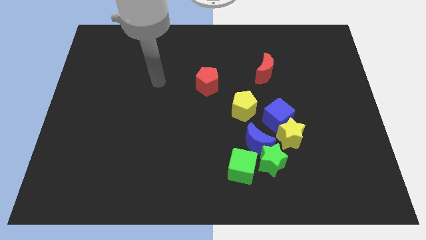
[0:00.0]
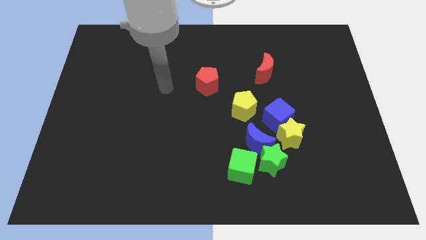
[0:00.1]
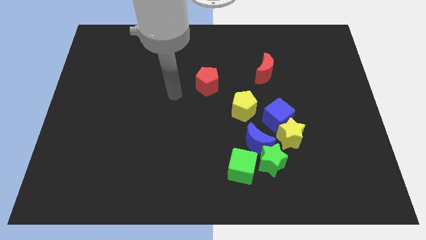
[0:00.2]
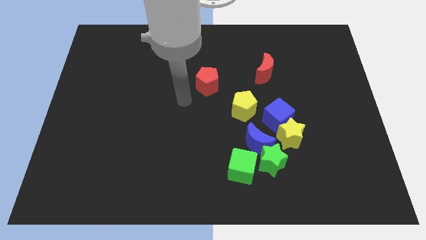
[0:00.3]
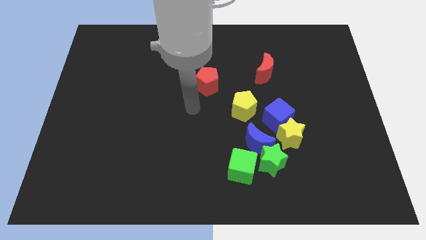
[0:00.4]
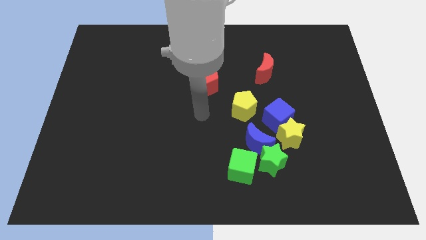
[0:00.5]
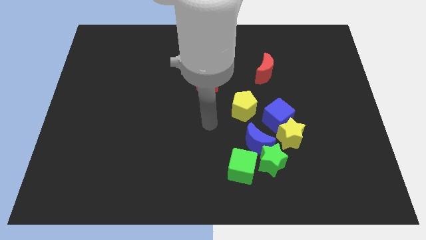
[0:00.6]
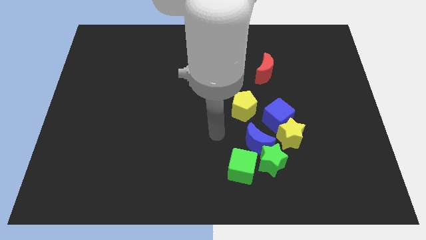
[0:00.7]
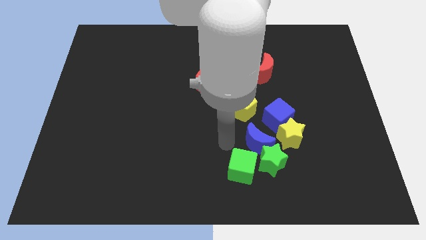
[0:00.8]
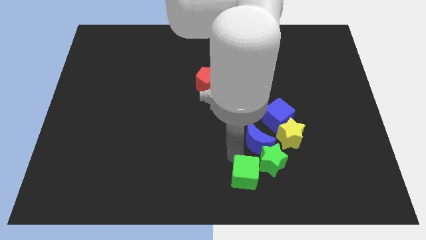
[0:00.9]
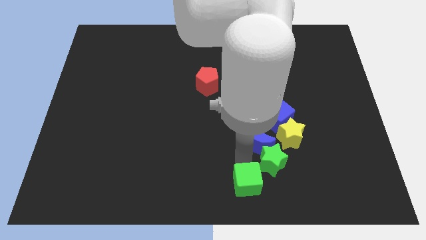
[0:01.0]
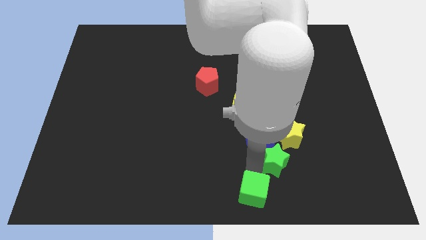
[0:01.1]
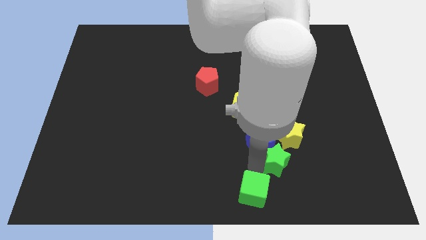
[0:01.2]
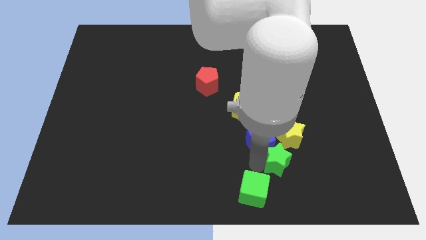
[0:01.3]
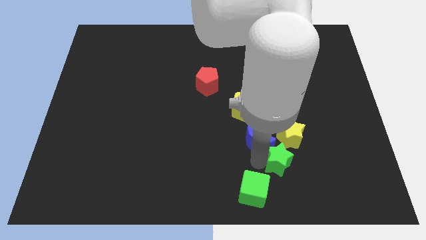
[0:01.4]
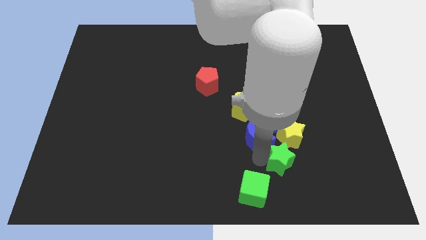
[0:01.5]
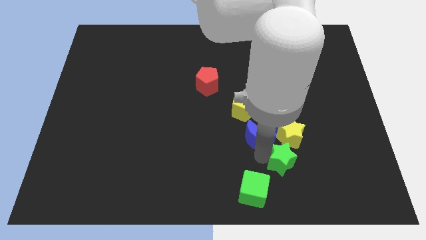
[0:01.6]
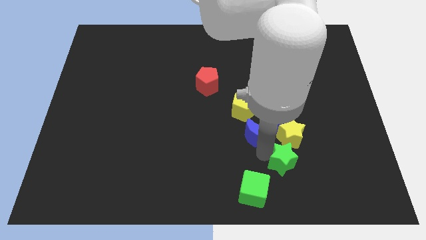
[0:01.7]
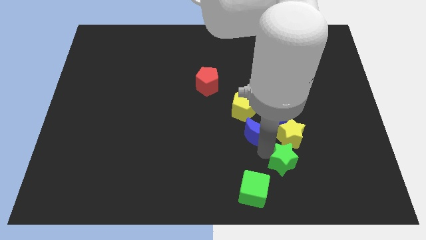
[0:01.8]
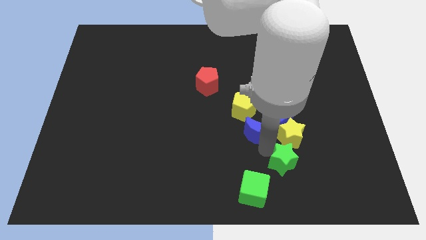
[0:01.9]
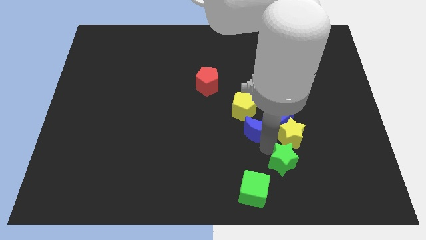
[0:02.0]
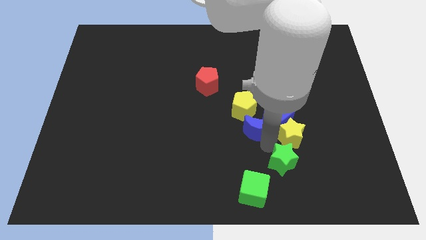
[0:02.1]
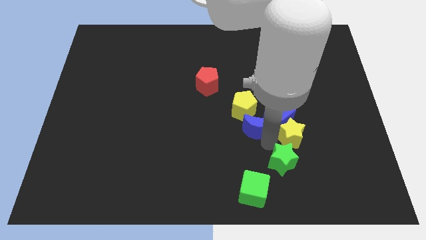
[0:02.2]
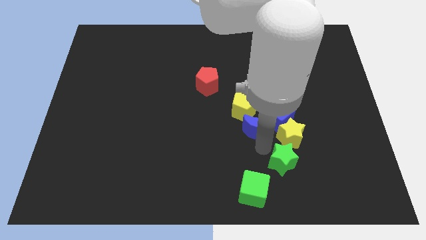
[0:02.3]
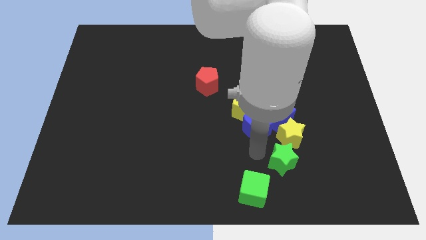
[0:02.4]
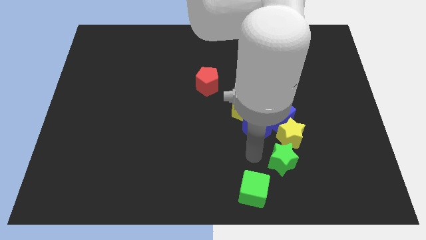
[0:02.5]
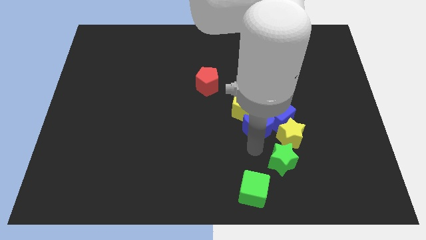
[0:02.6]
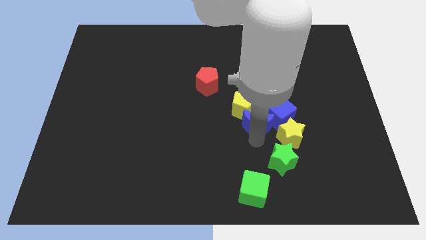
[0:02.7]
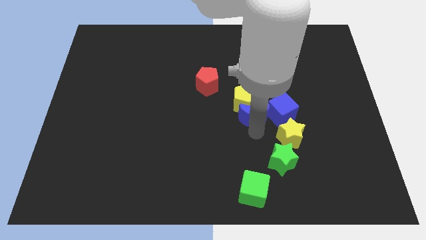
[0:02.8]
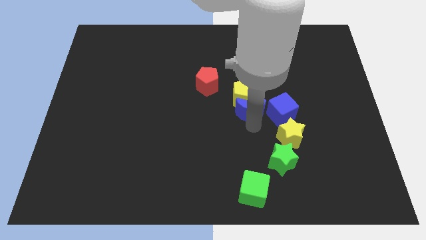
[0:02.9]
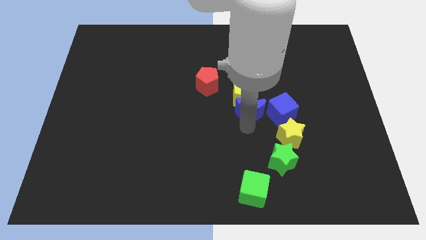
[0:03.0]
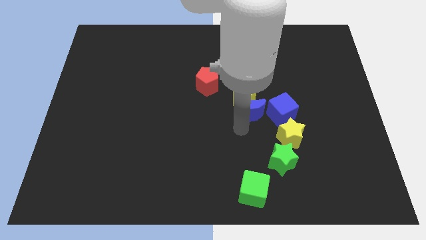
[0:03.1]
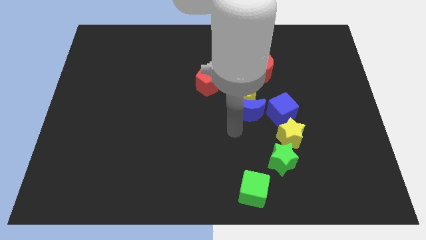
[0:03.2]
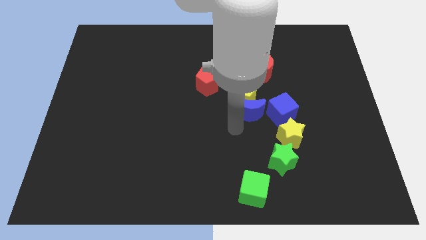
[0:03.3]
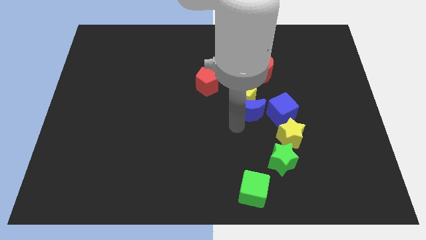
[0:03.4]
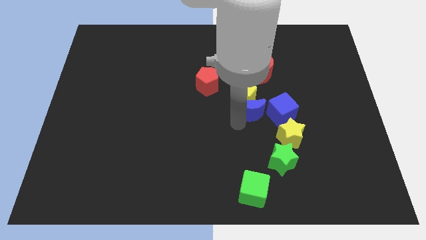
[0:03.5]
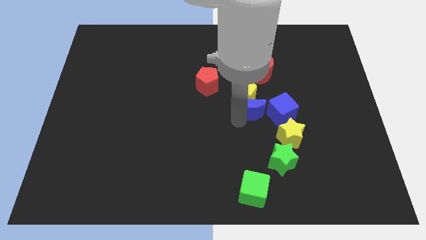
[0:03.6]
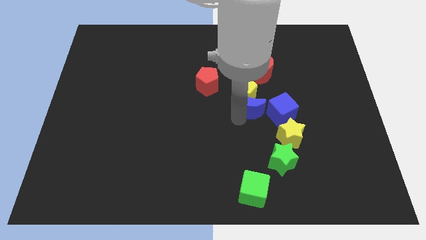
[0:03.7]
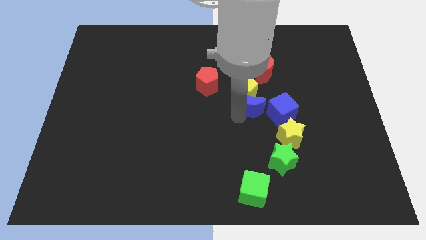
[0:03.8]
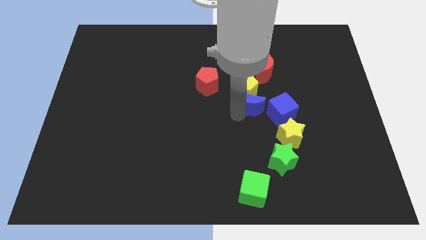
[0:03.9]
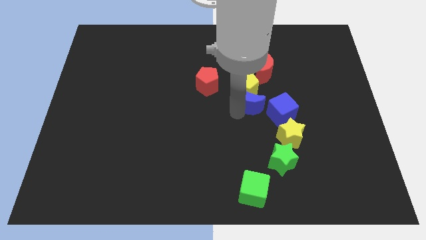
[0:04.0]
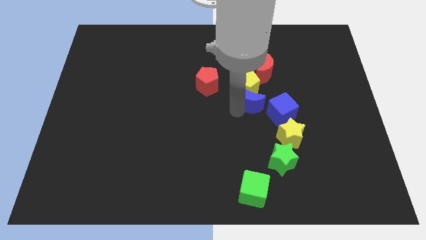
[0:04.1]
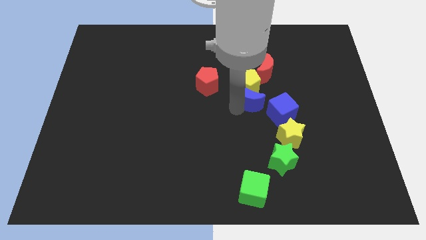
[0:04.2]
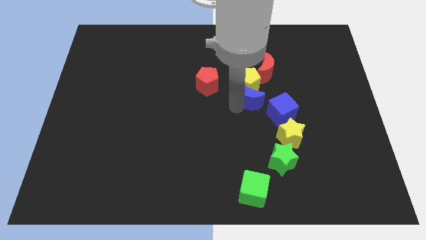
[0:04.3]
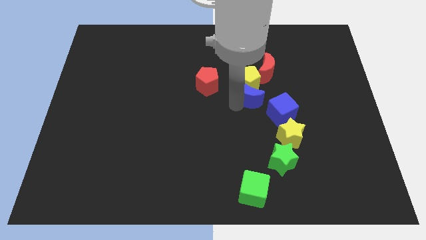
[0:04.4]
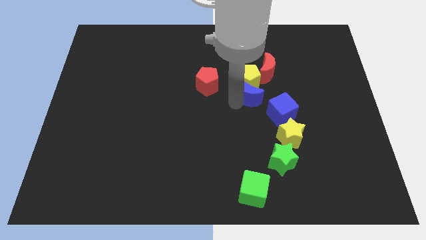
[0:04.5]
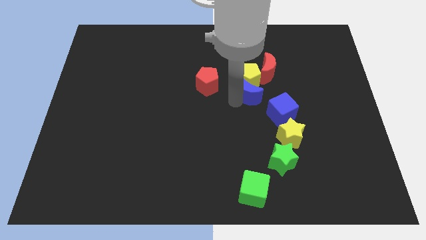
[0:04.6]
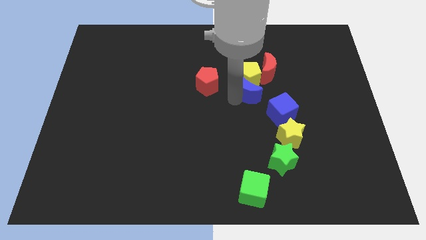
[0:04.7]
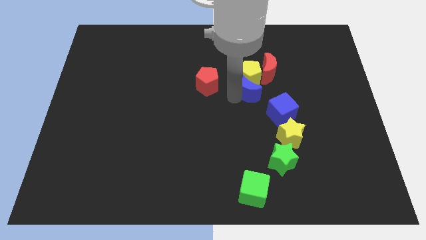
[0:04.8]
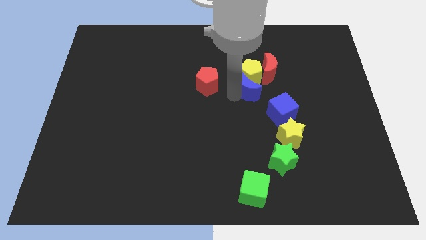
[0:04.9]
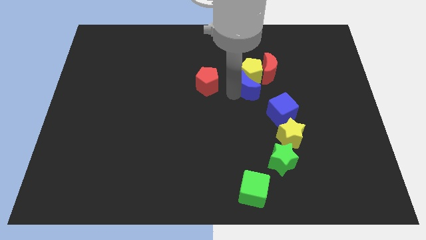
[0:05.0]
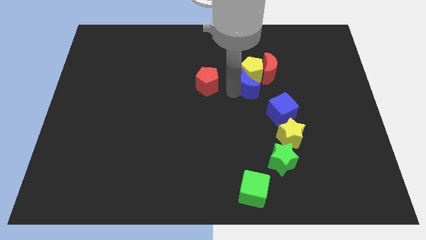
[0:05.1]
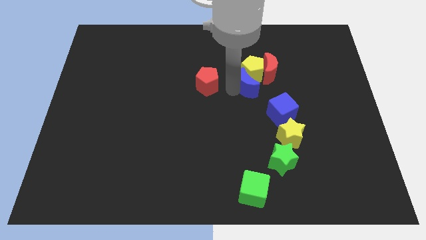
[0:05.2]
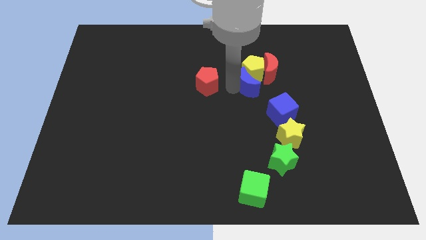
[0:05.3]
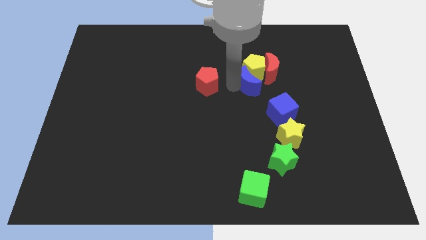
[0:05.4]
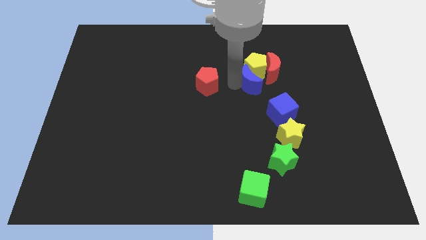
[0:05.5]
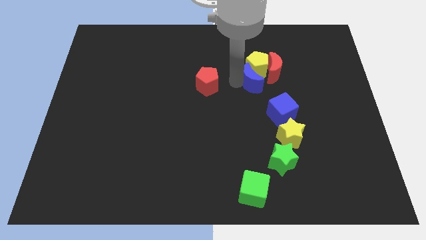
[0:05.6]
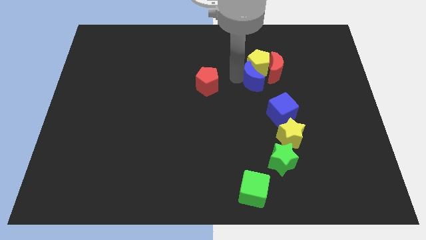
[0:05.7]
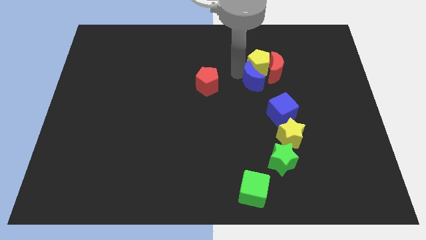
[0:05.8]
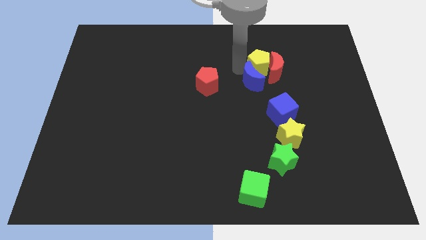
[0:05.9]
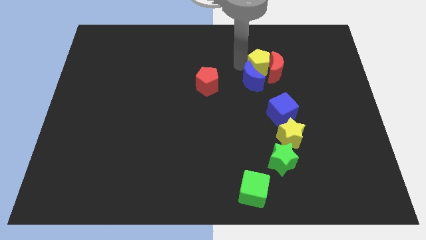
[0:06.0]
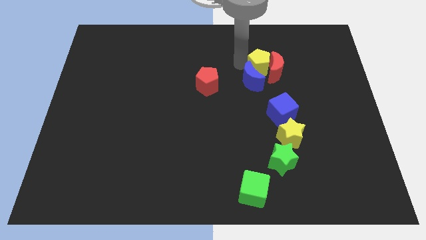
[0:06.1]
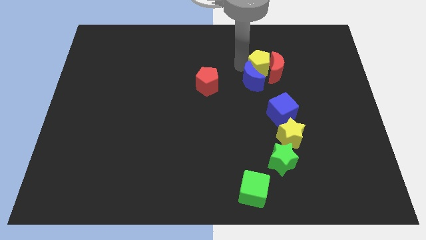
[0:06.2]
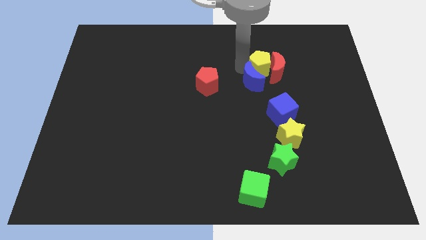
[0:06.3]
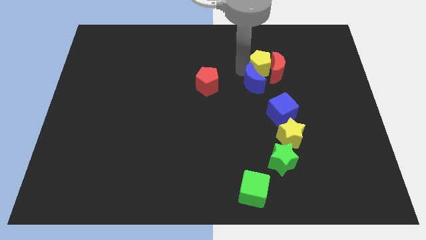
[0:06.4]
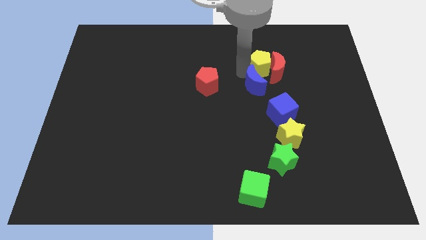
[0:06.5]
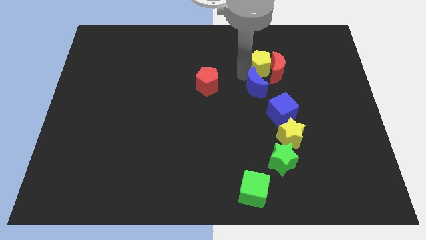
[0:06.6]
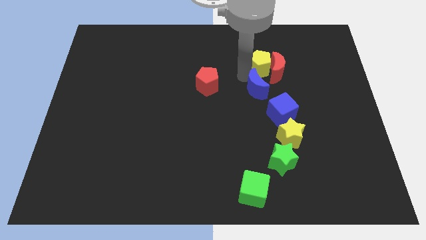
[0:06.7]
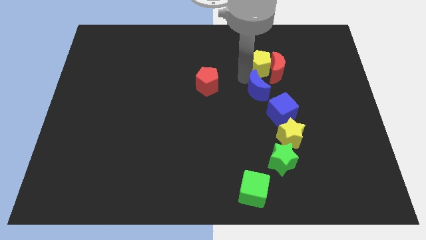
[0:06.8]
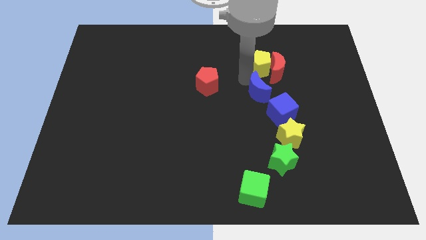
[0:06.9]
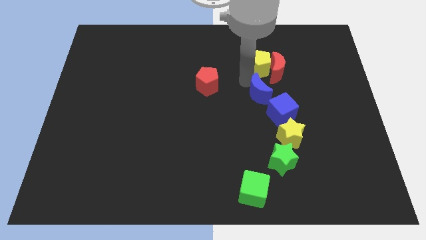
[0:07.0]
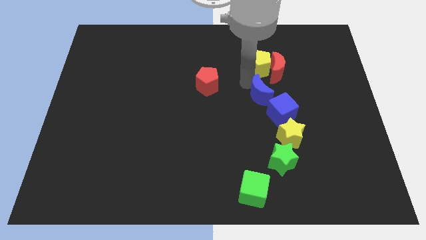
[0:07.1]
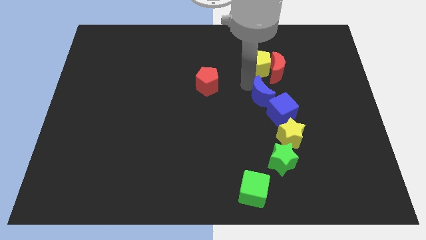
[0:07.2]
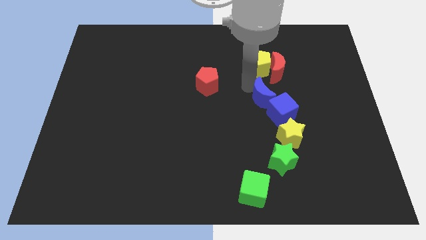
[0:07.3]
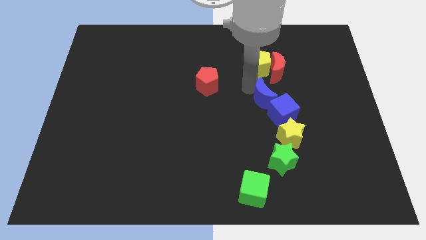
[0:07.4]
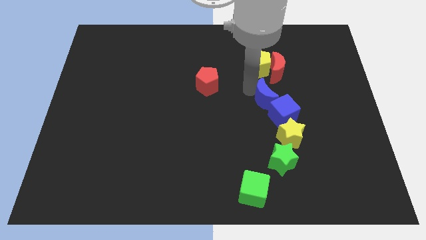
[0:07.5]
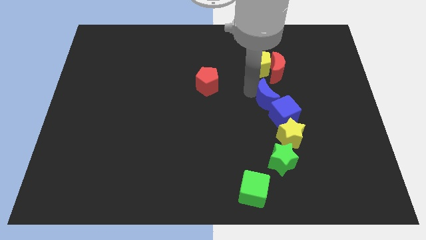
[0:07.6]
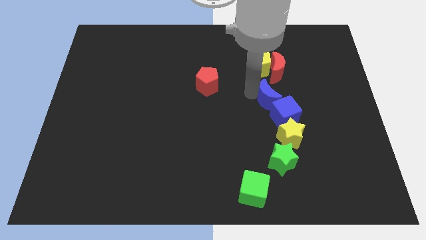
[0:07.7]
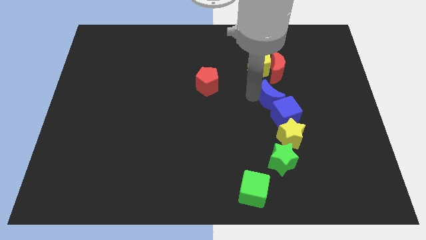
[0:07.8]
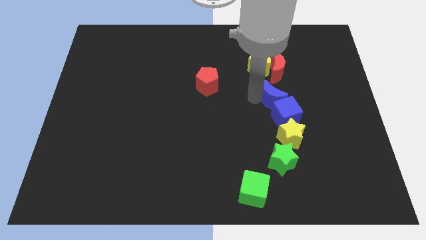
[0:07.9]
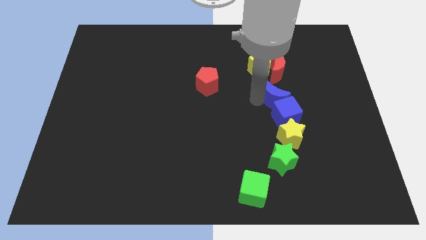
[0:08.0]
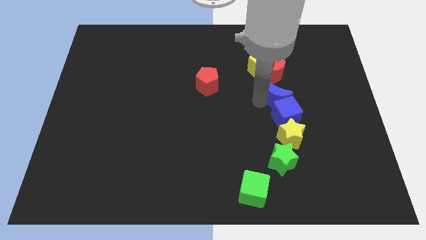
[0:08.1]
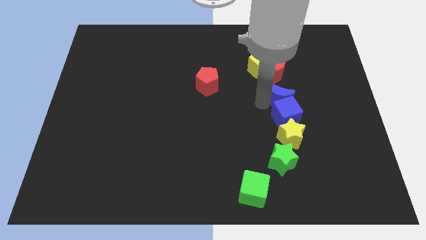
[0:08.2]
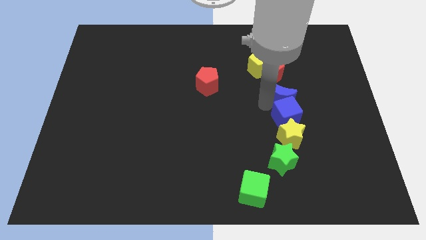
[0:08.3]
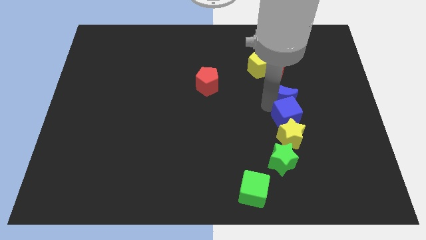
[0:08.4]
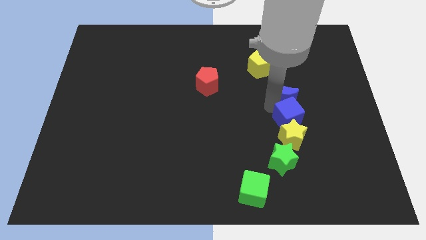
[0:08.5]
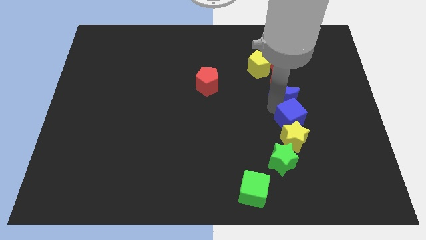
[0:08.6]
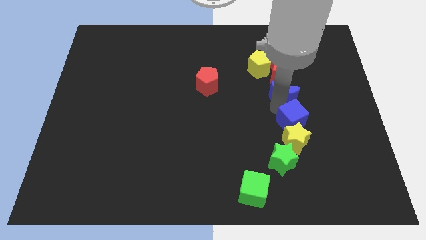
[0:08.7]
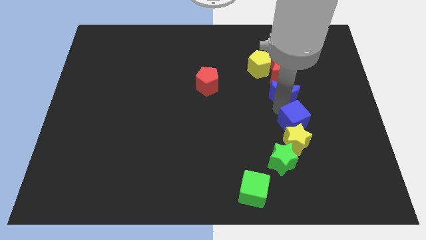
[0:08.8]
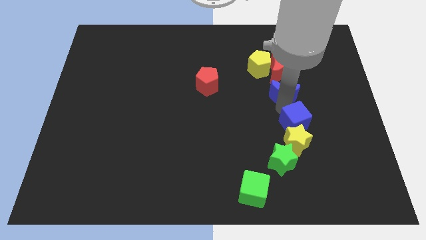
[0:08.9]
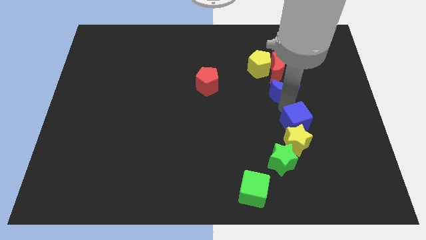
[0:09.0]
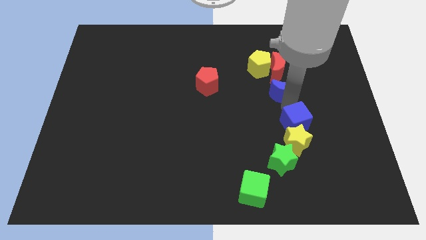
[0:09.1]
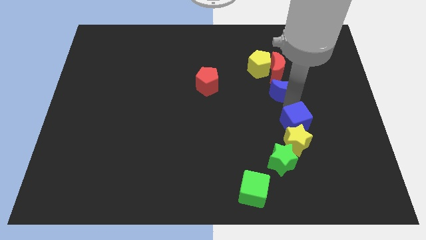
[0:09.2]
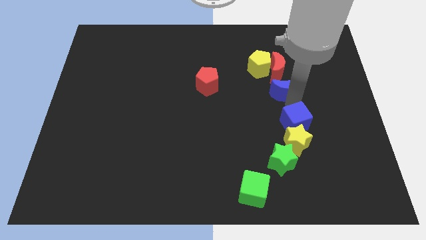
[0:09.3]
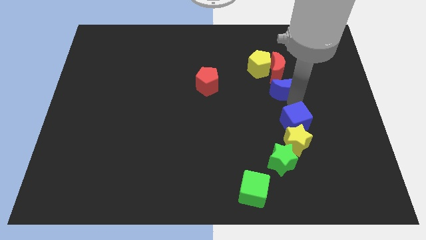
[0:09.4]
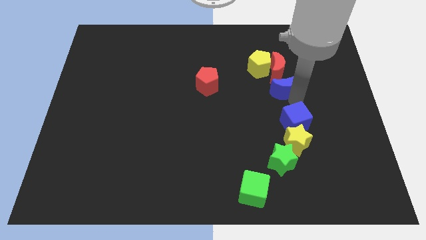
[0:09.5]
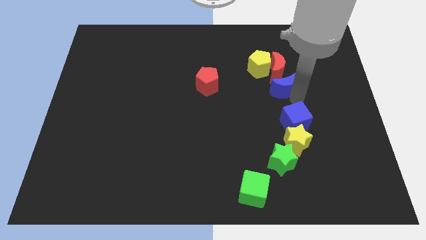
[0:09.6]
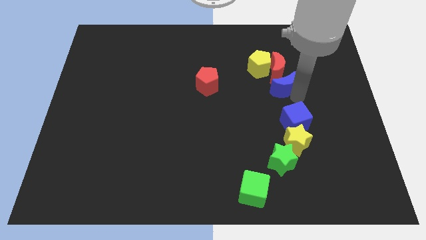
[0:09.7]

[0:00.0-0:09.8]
push the blue moon to the red moon
